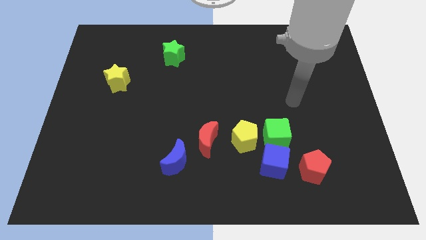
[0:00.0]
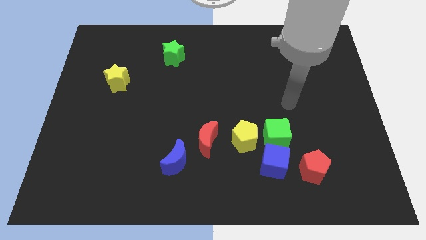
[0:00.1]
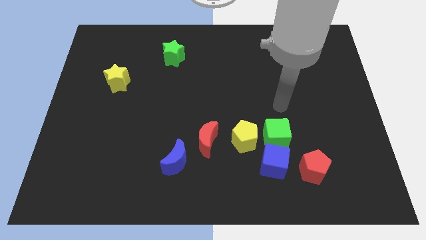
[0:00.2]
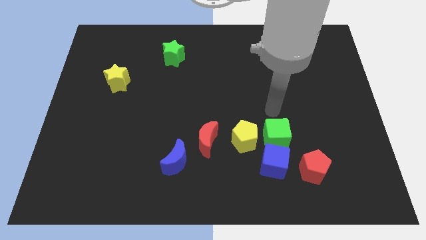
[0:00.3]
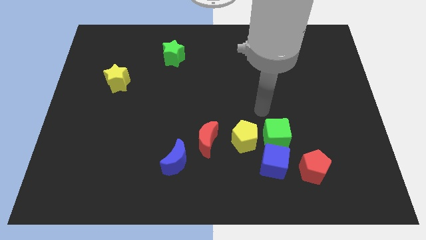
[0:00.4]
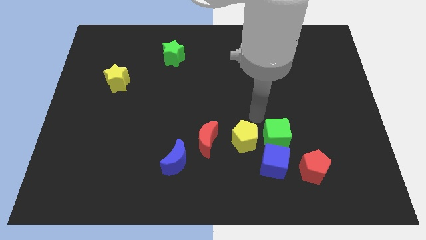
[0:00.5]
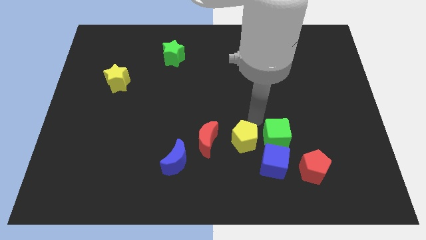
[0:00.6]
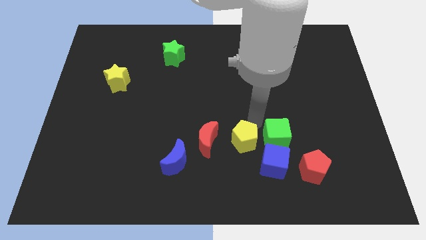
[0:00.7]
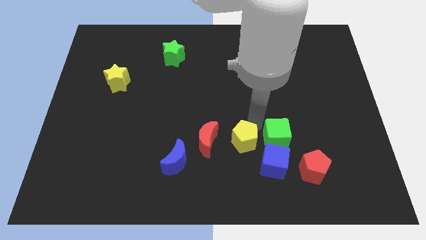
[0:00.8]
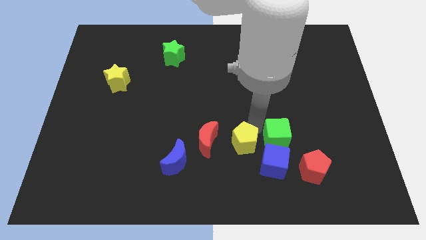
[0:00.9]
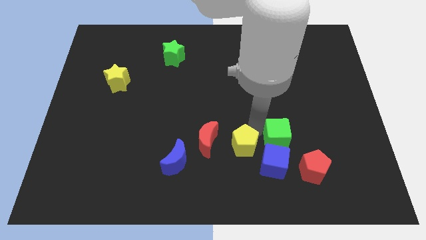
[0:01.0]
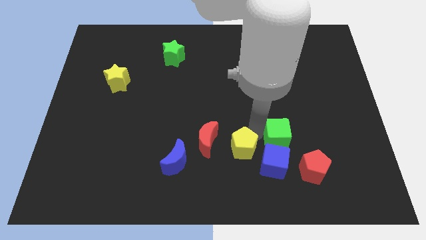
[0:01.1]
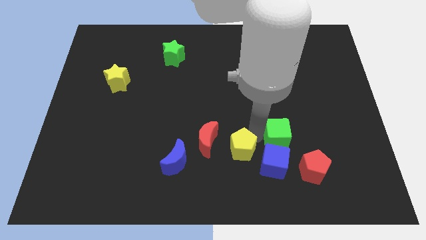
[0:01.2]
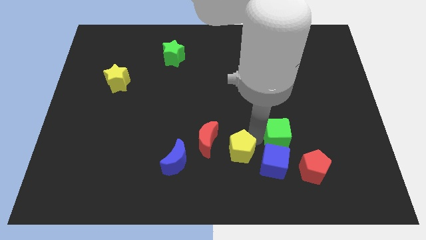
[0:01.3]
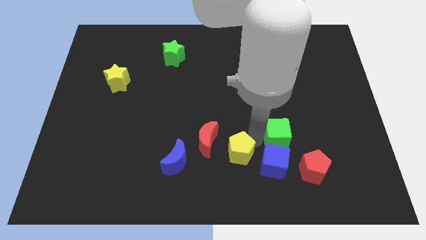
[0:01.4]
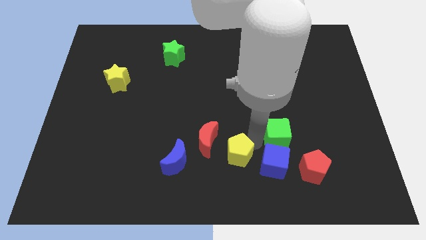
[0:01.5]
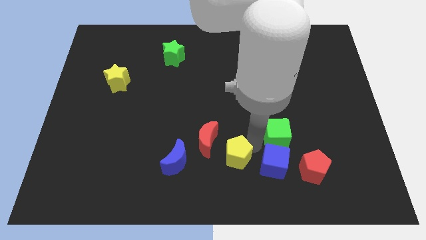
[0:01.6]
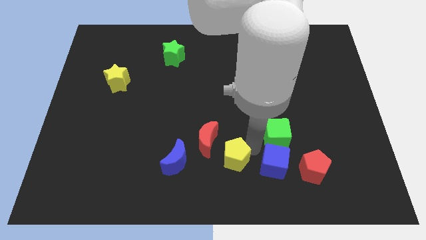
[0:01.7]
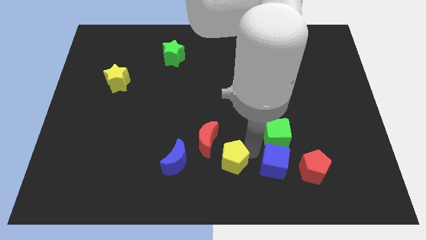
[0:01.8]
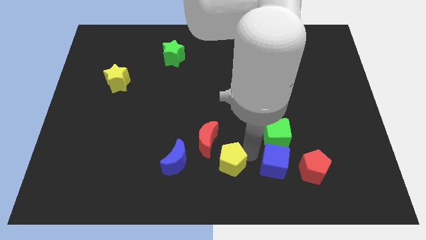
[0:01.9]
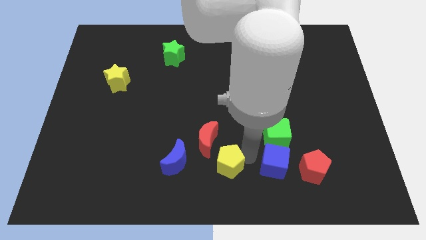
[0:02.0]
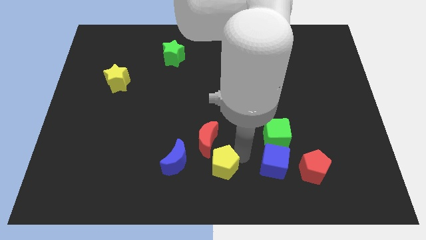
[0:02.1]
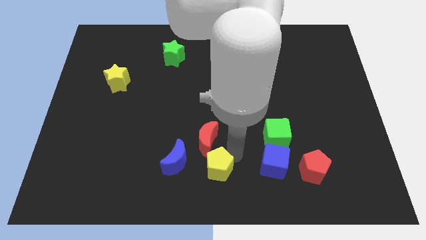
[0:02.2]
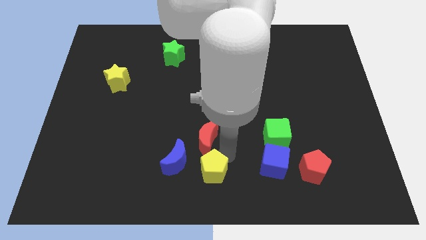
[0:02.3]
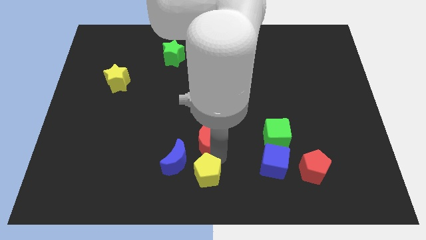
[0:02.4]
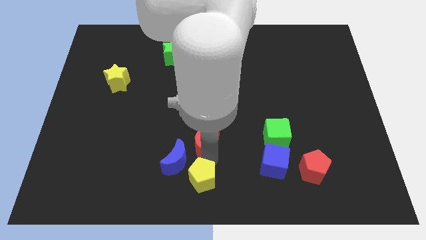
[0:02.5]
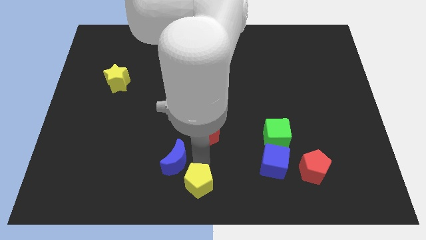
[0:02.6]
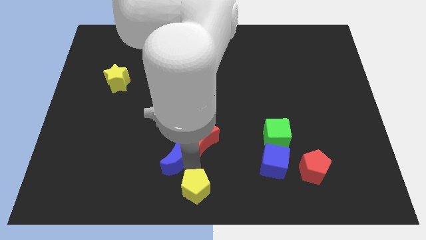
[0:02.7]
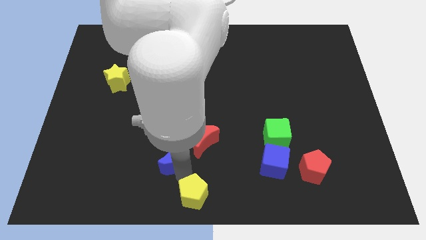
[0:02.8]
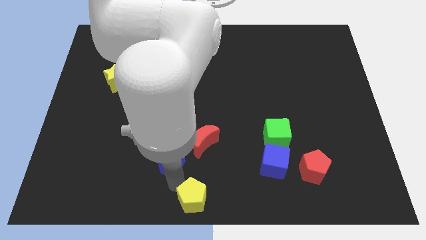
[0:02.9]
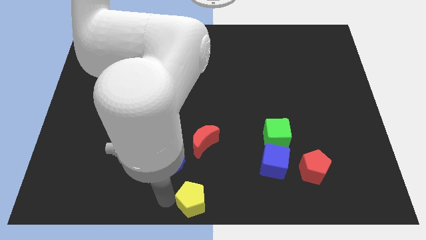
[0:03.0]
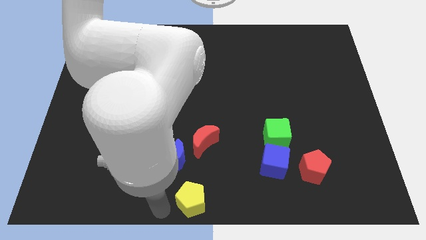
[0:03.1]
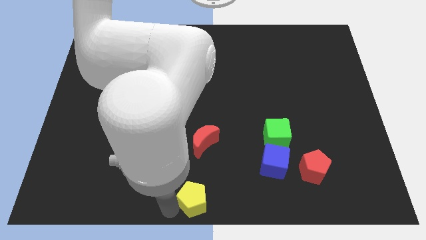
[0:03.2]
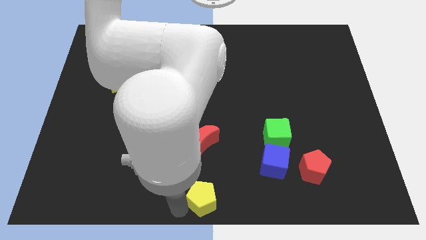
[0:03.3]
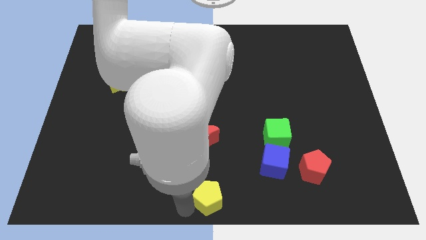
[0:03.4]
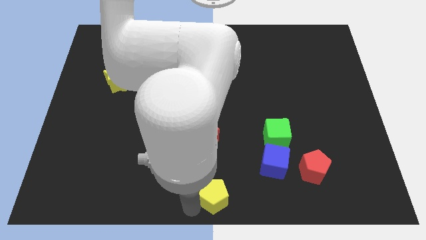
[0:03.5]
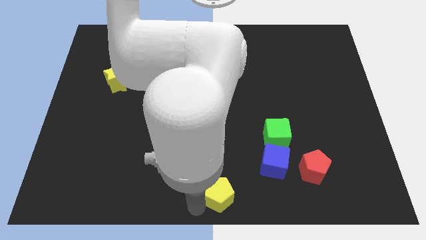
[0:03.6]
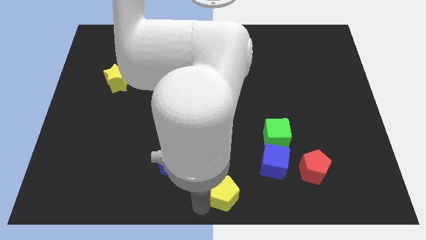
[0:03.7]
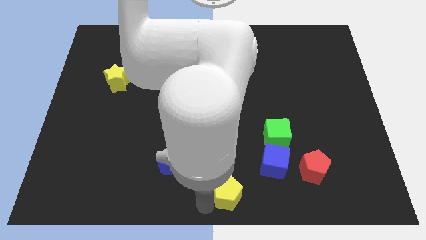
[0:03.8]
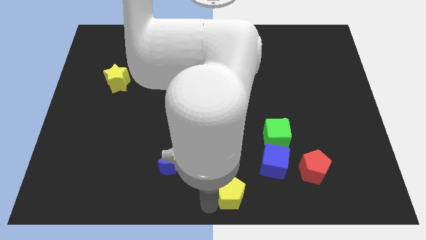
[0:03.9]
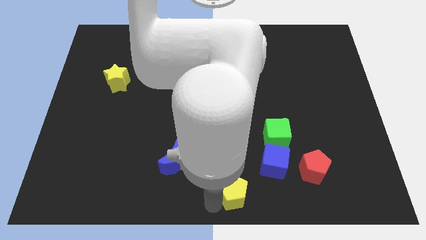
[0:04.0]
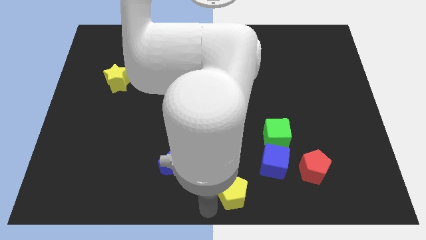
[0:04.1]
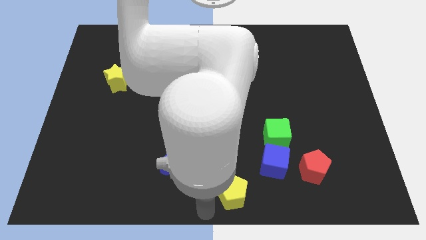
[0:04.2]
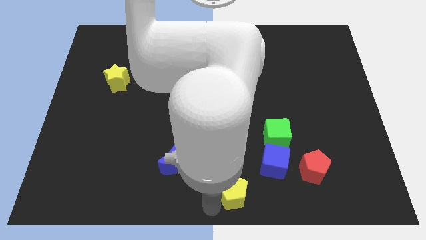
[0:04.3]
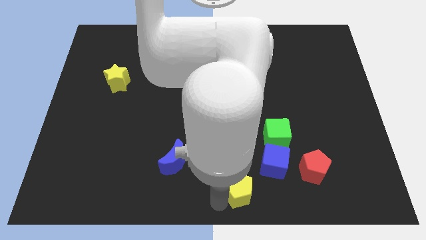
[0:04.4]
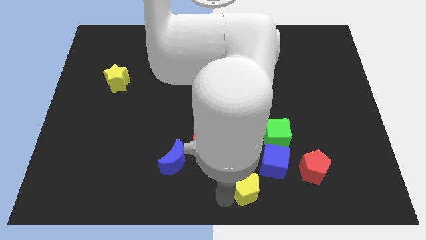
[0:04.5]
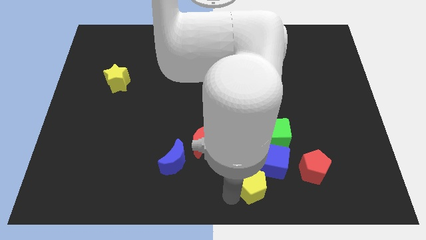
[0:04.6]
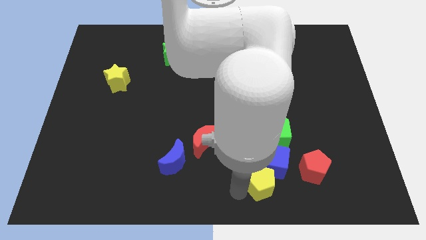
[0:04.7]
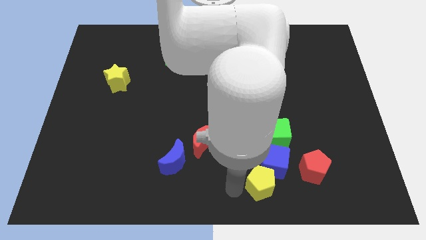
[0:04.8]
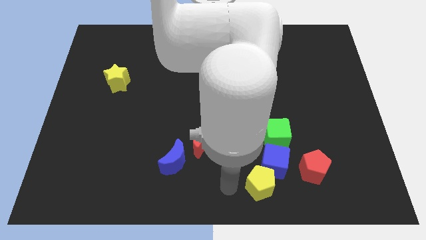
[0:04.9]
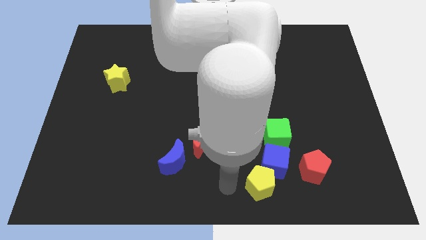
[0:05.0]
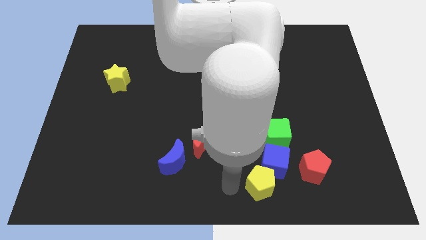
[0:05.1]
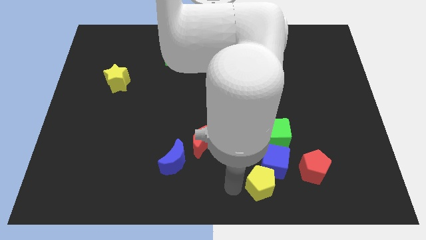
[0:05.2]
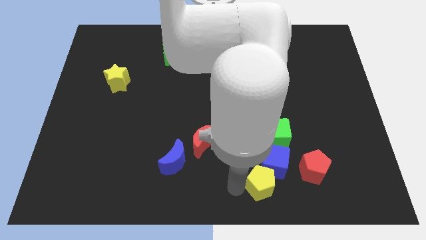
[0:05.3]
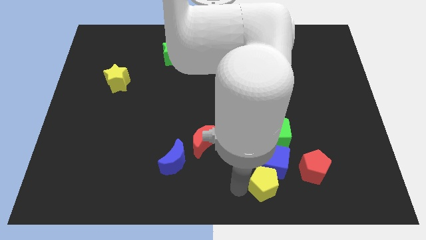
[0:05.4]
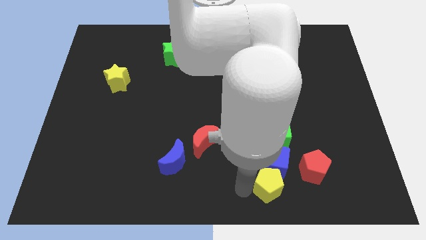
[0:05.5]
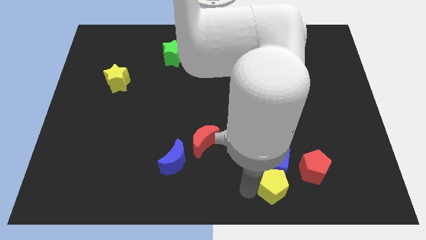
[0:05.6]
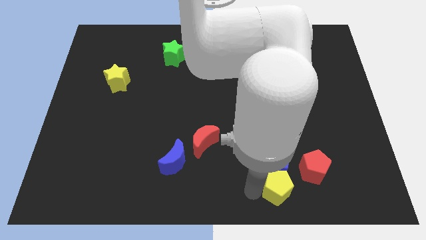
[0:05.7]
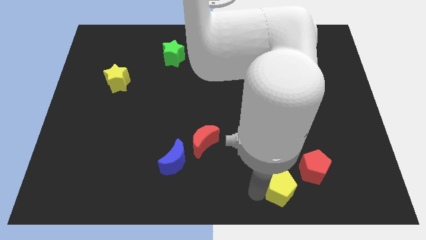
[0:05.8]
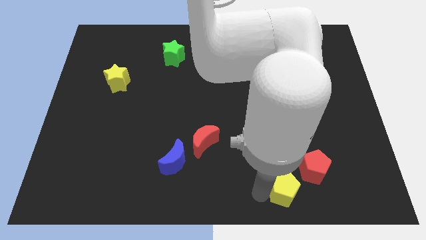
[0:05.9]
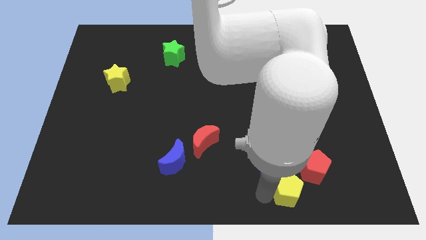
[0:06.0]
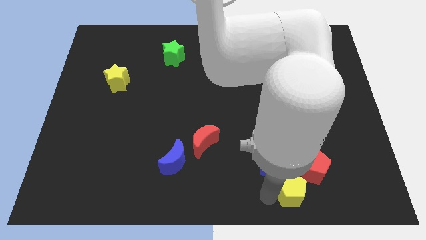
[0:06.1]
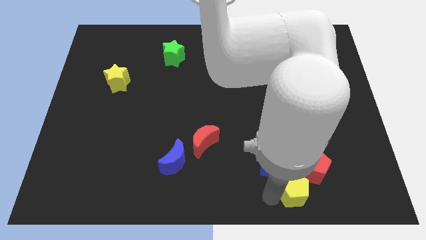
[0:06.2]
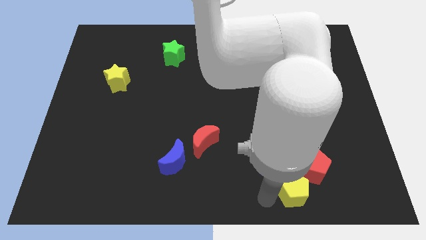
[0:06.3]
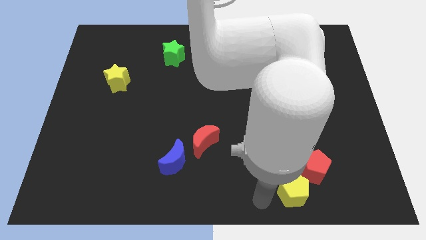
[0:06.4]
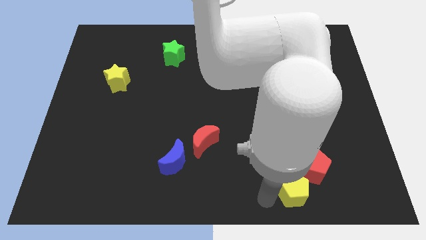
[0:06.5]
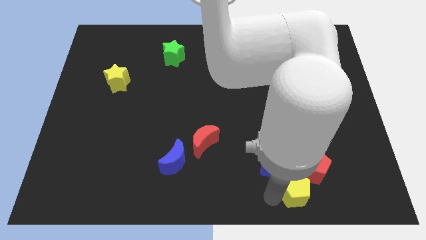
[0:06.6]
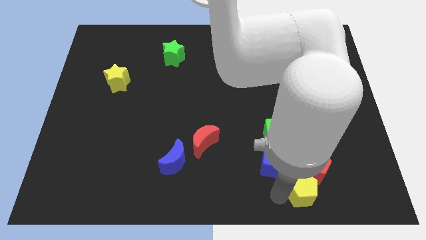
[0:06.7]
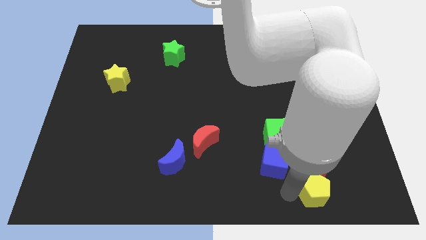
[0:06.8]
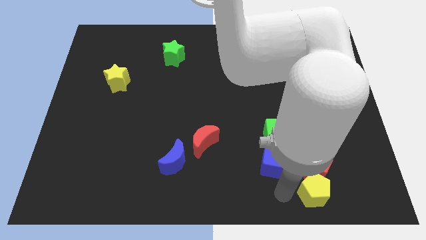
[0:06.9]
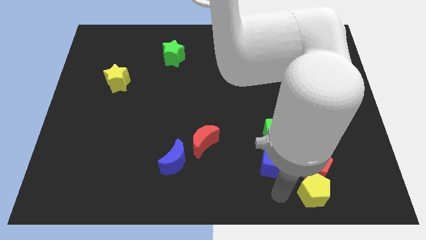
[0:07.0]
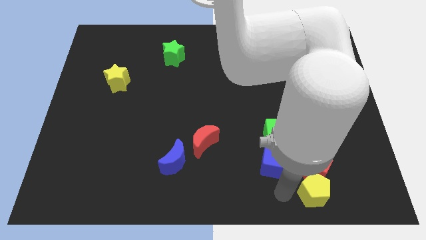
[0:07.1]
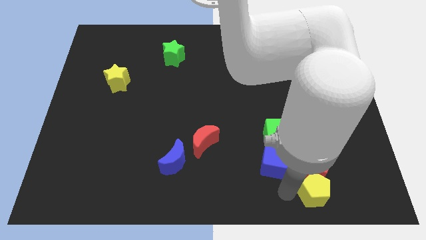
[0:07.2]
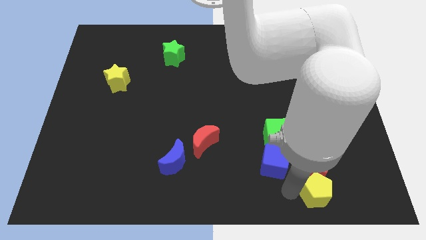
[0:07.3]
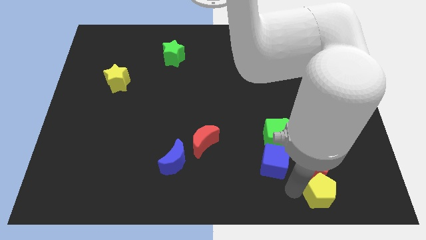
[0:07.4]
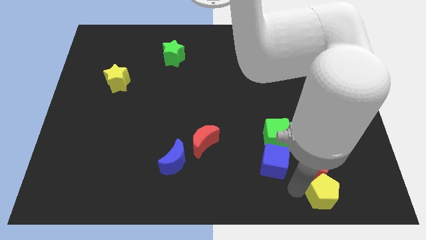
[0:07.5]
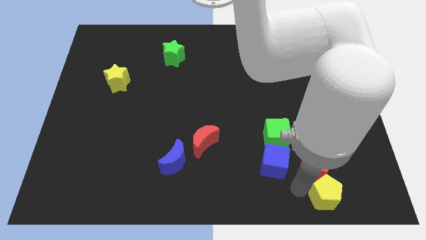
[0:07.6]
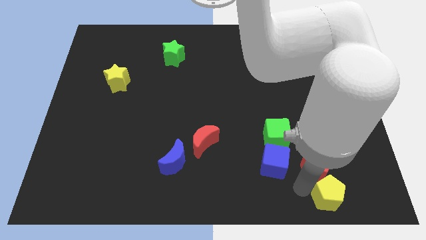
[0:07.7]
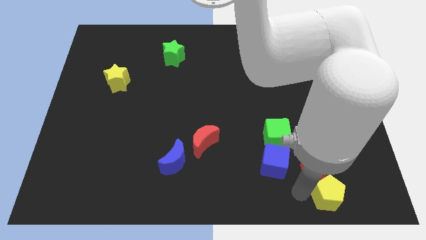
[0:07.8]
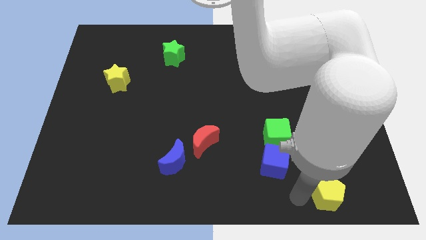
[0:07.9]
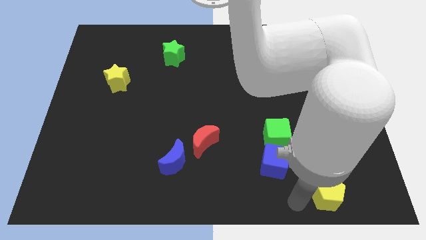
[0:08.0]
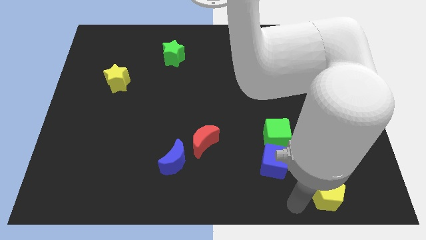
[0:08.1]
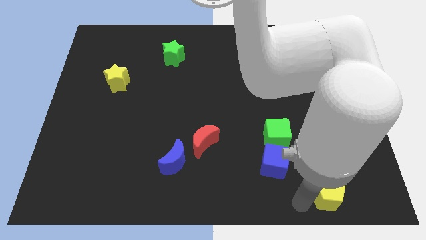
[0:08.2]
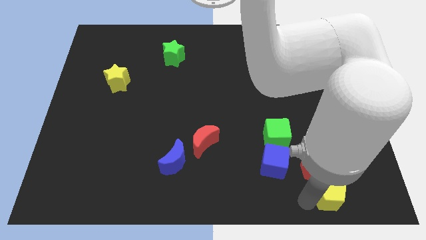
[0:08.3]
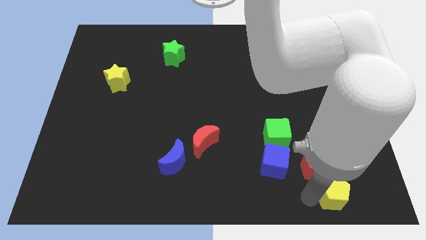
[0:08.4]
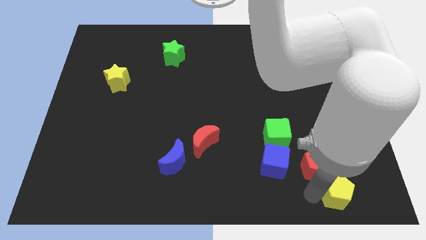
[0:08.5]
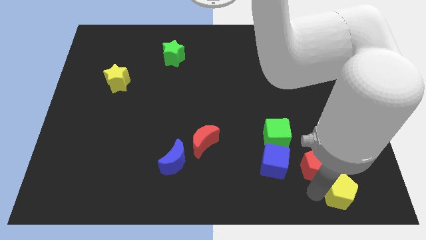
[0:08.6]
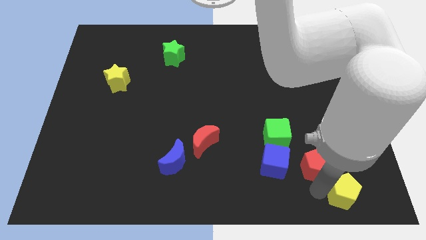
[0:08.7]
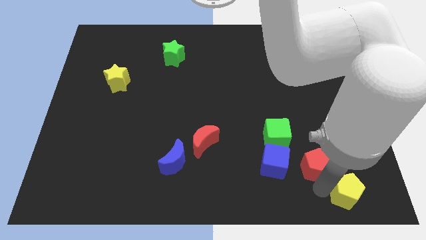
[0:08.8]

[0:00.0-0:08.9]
put the yellow pentagon to the bottom right of the board
